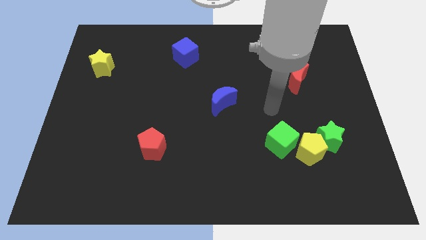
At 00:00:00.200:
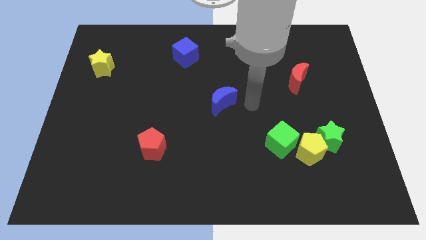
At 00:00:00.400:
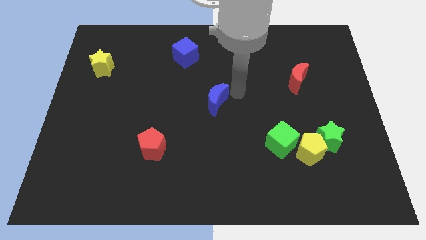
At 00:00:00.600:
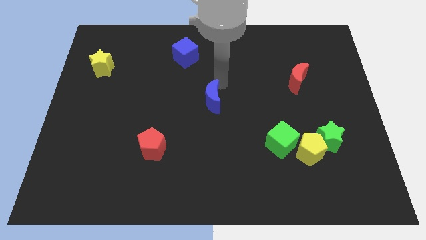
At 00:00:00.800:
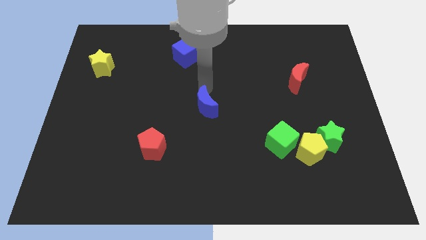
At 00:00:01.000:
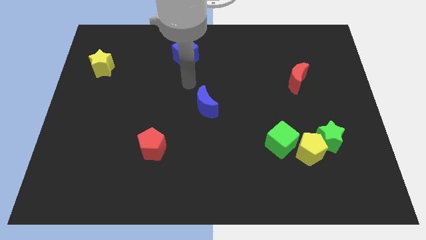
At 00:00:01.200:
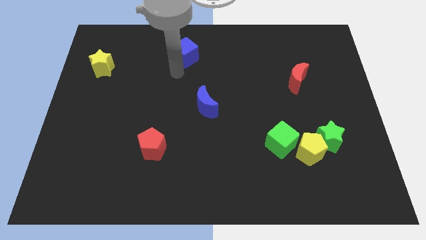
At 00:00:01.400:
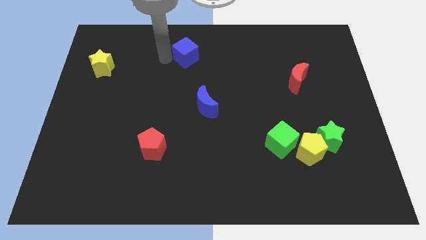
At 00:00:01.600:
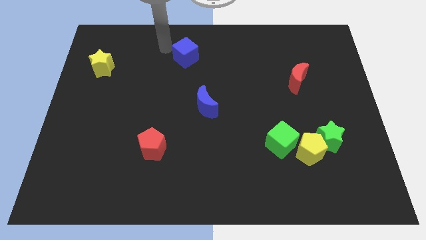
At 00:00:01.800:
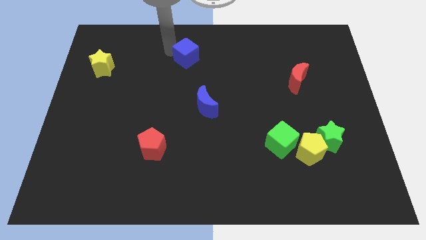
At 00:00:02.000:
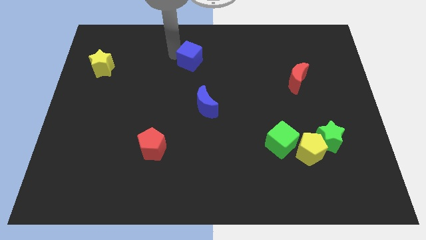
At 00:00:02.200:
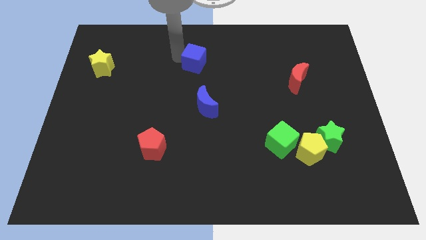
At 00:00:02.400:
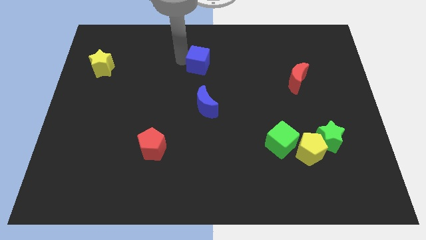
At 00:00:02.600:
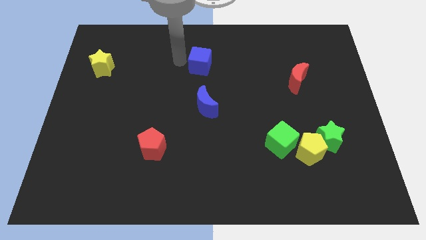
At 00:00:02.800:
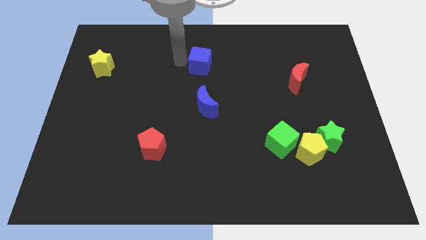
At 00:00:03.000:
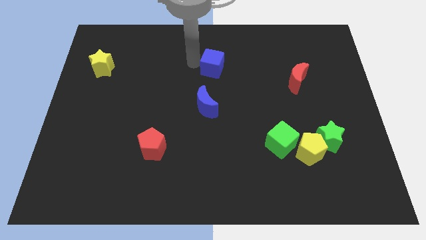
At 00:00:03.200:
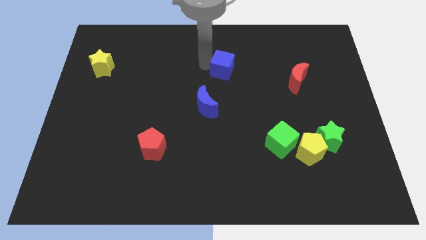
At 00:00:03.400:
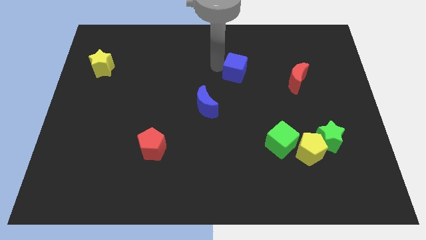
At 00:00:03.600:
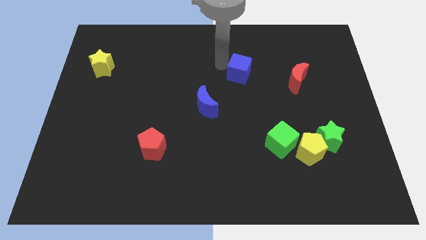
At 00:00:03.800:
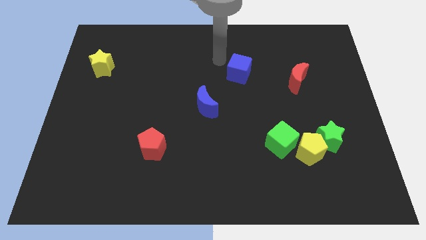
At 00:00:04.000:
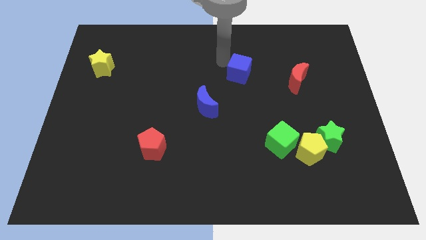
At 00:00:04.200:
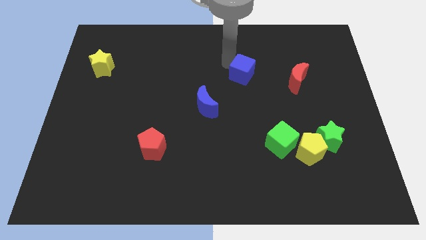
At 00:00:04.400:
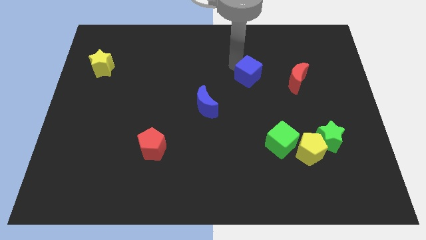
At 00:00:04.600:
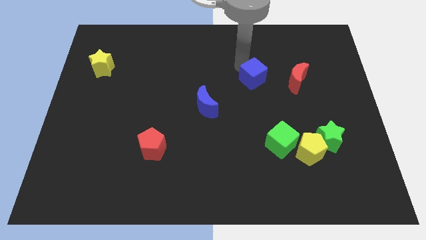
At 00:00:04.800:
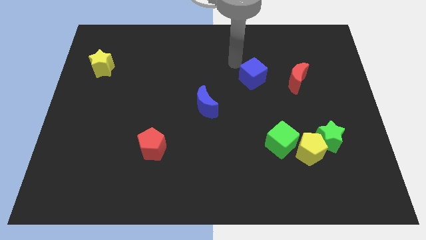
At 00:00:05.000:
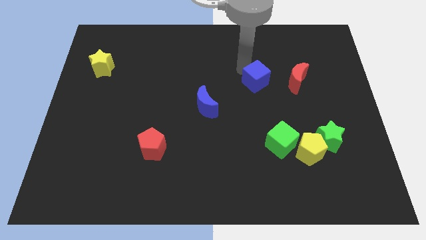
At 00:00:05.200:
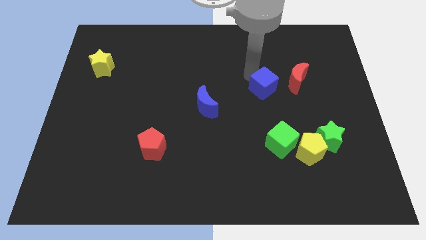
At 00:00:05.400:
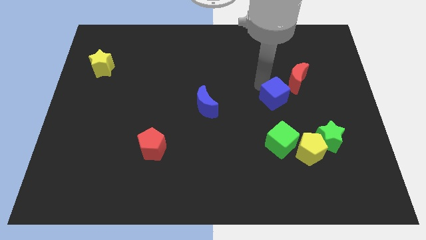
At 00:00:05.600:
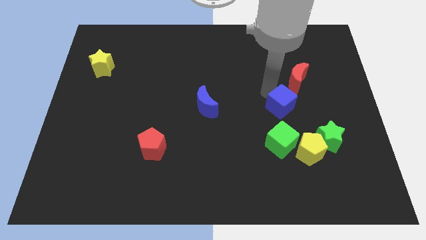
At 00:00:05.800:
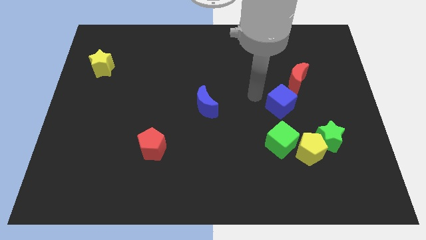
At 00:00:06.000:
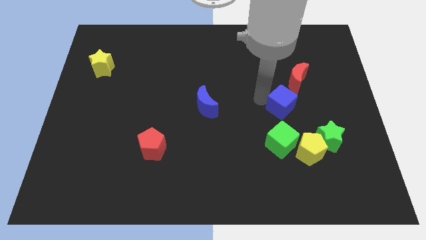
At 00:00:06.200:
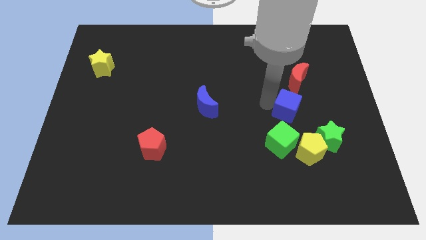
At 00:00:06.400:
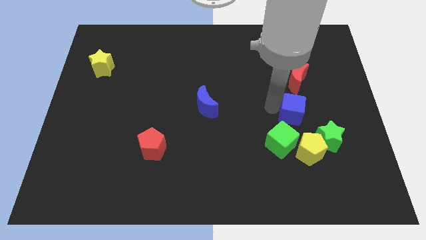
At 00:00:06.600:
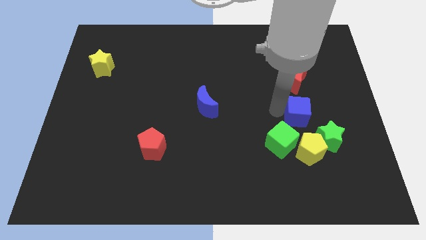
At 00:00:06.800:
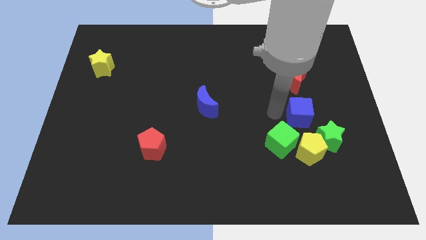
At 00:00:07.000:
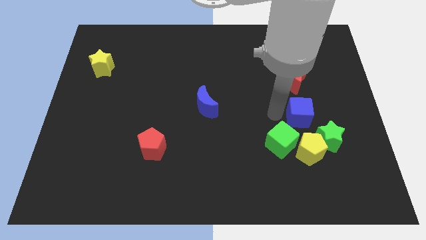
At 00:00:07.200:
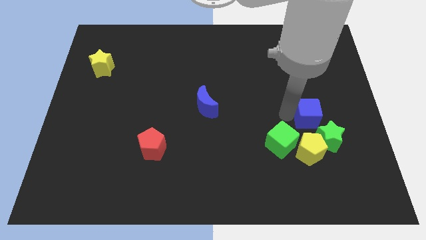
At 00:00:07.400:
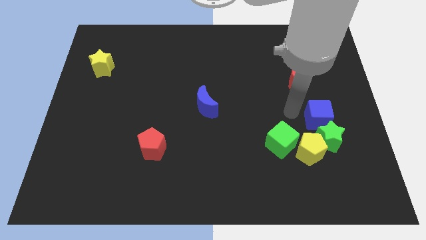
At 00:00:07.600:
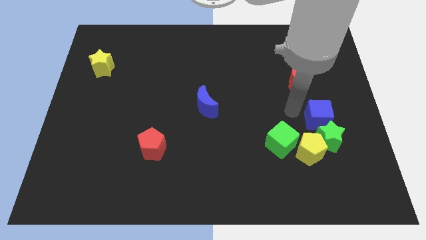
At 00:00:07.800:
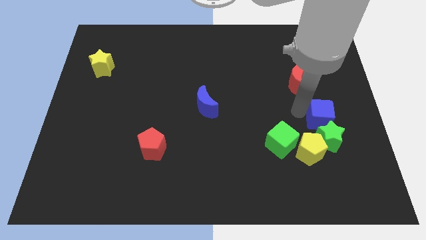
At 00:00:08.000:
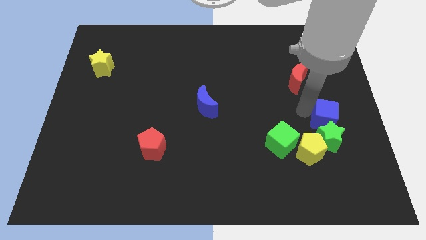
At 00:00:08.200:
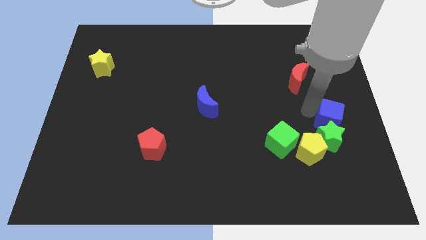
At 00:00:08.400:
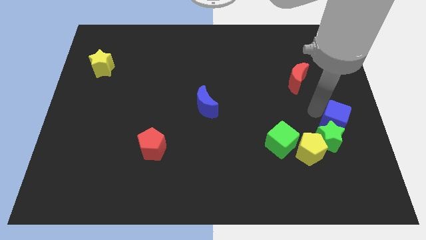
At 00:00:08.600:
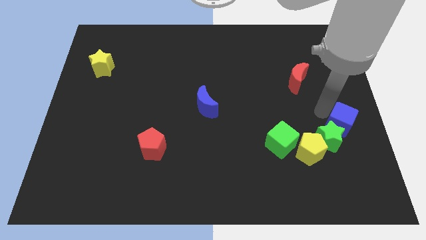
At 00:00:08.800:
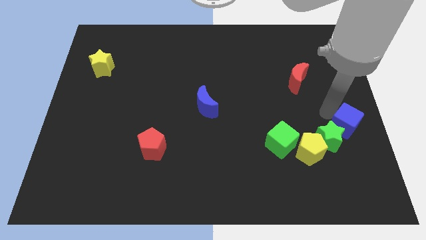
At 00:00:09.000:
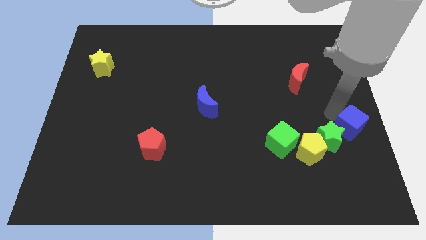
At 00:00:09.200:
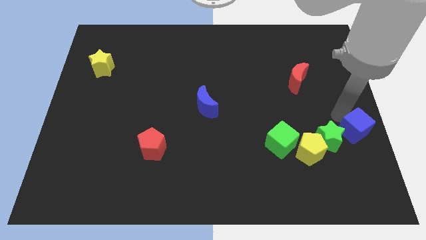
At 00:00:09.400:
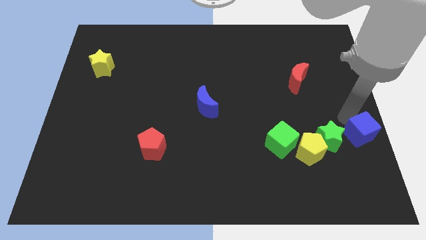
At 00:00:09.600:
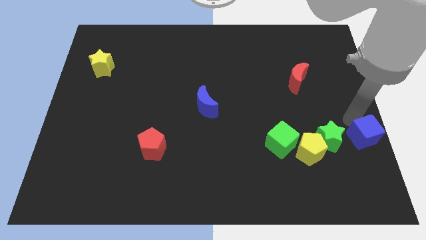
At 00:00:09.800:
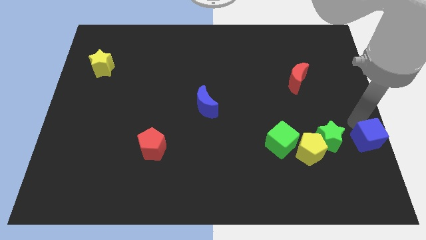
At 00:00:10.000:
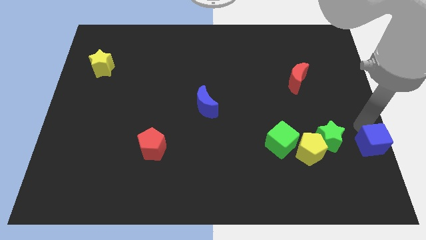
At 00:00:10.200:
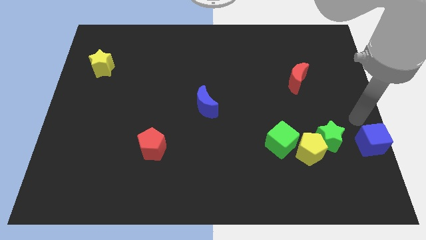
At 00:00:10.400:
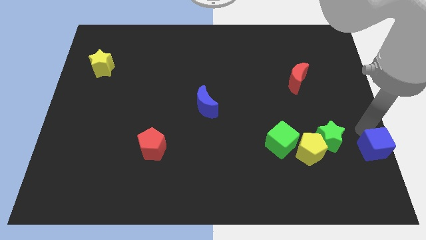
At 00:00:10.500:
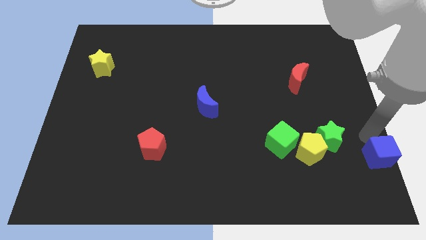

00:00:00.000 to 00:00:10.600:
push the blue cube to the bottom right of the board

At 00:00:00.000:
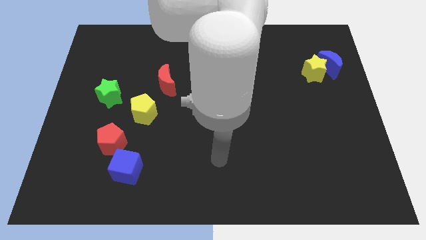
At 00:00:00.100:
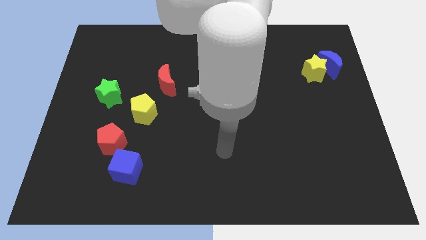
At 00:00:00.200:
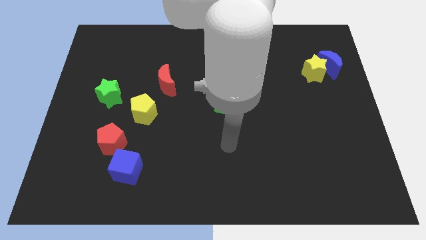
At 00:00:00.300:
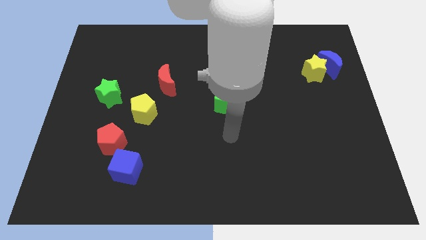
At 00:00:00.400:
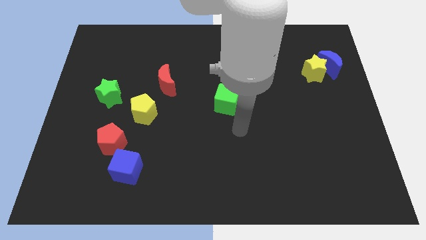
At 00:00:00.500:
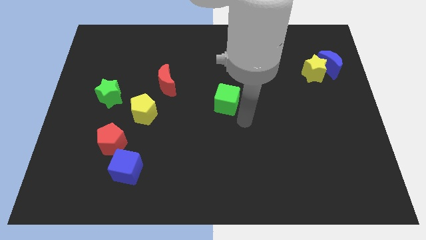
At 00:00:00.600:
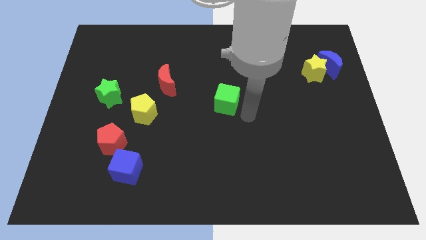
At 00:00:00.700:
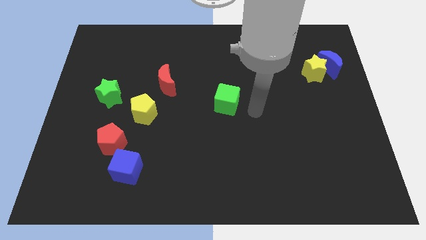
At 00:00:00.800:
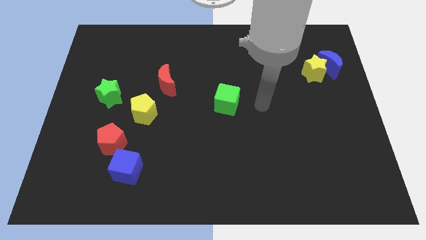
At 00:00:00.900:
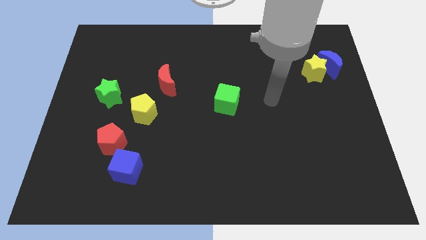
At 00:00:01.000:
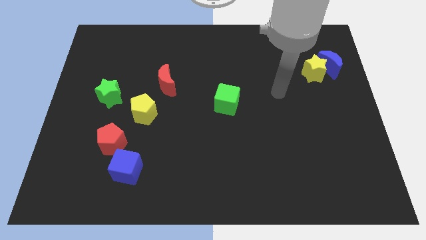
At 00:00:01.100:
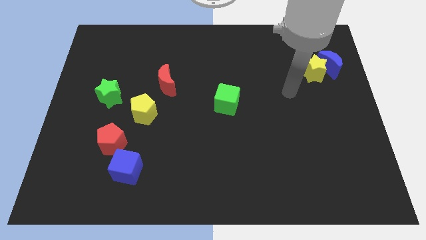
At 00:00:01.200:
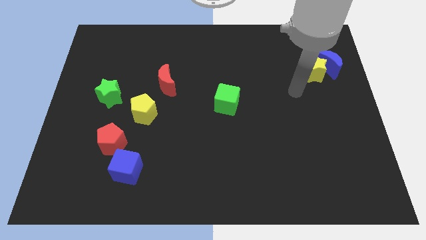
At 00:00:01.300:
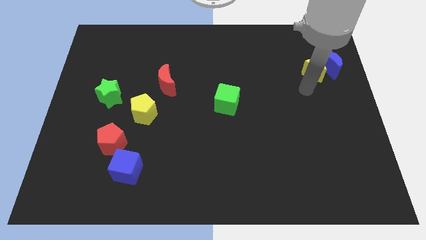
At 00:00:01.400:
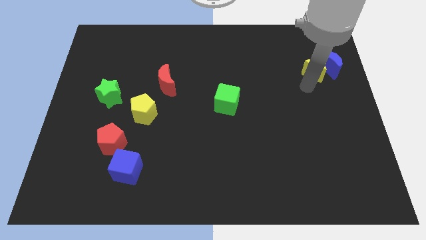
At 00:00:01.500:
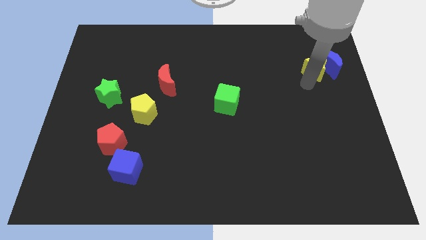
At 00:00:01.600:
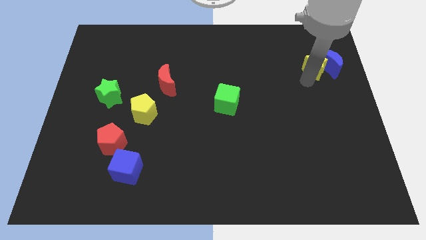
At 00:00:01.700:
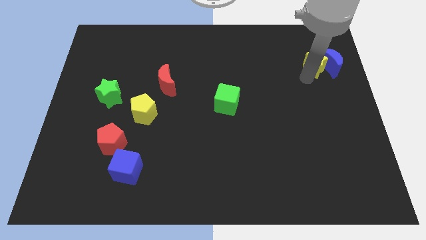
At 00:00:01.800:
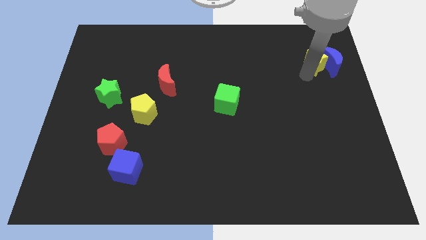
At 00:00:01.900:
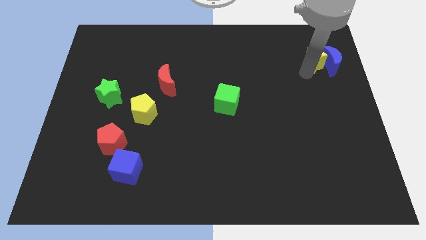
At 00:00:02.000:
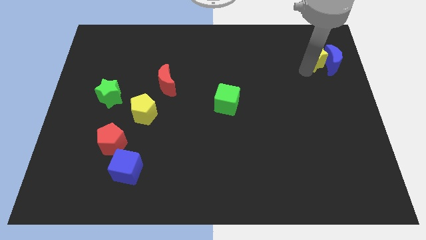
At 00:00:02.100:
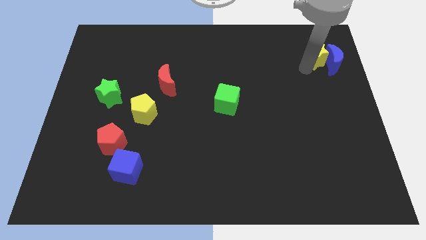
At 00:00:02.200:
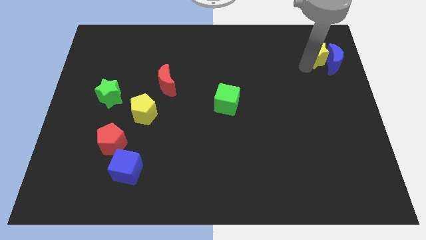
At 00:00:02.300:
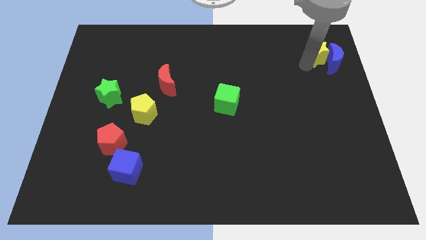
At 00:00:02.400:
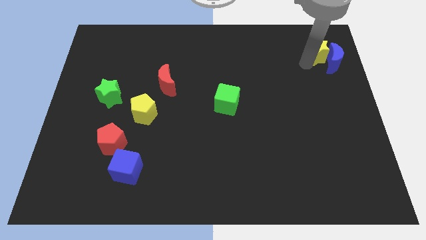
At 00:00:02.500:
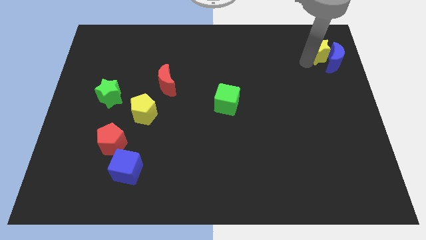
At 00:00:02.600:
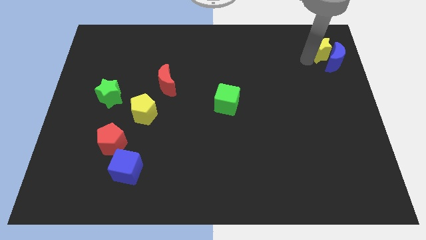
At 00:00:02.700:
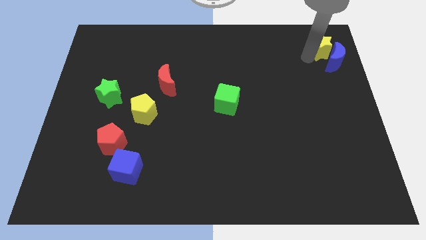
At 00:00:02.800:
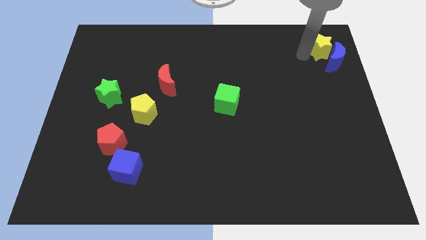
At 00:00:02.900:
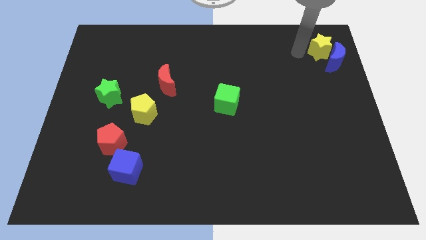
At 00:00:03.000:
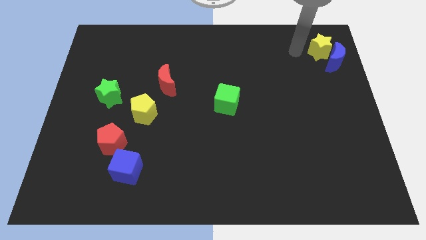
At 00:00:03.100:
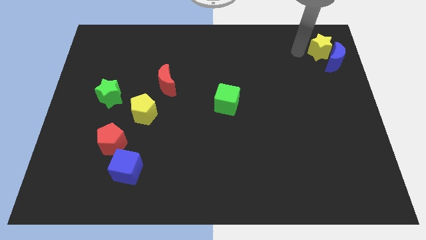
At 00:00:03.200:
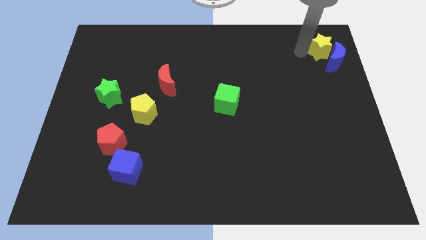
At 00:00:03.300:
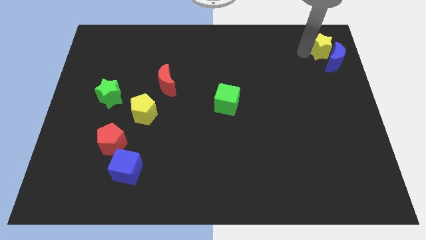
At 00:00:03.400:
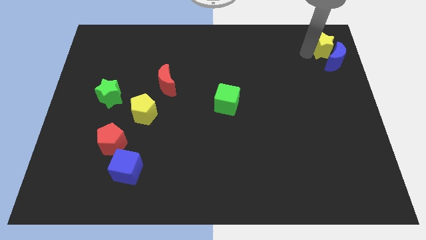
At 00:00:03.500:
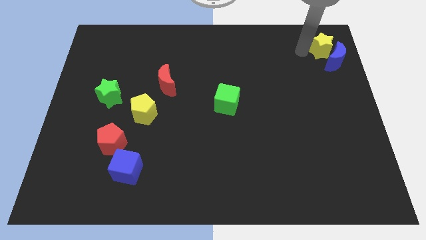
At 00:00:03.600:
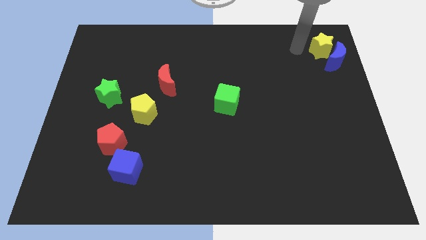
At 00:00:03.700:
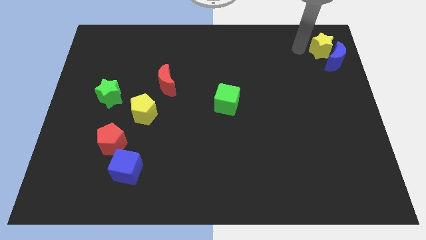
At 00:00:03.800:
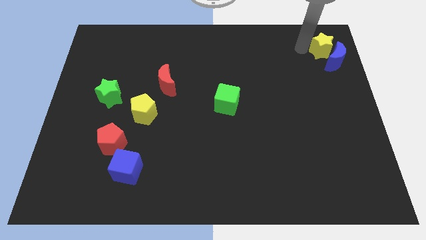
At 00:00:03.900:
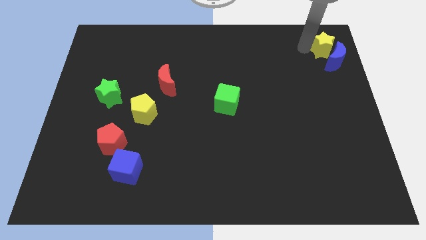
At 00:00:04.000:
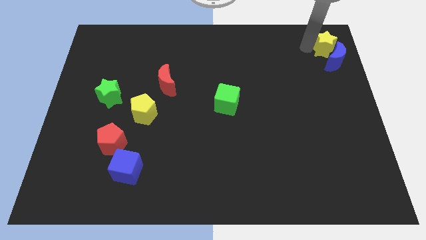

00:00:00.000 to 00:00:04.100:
put the yellow star to the upper right corner
